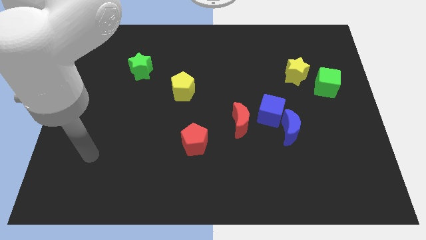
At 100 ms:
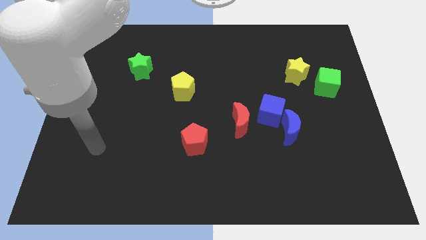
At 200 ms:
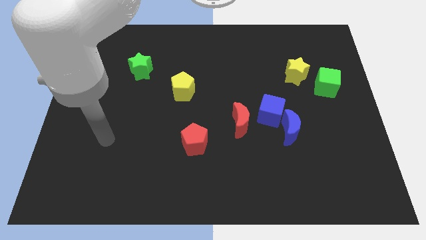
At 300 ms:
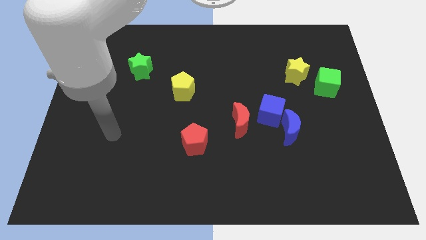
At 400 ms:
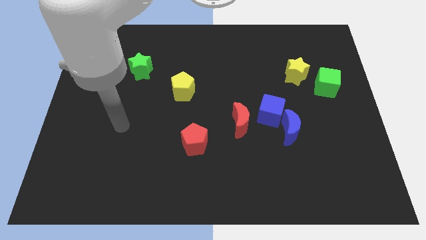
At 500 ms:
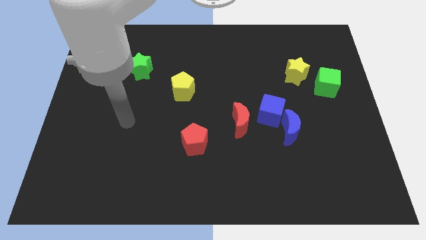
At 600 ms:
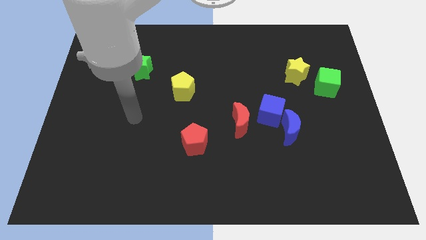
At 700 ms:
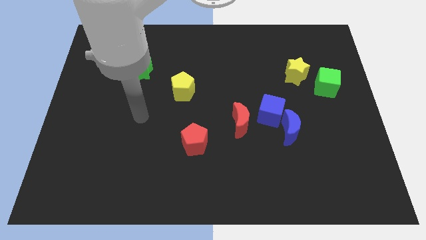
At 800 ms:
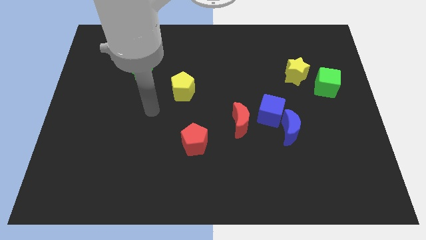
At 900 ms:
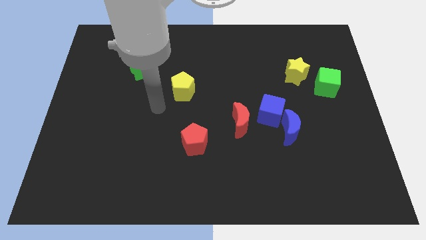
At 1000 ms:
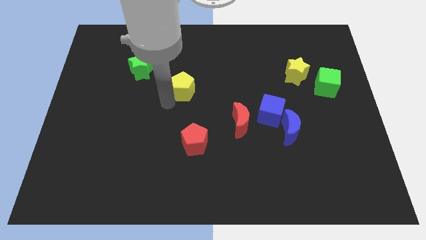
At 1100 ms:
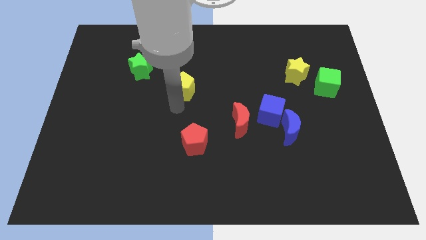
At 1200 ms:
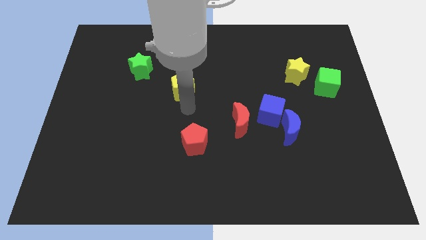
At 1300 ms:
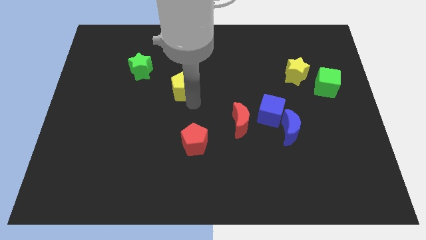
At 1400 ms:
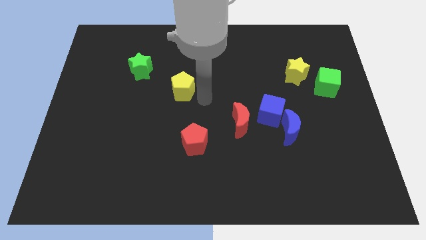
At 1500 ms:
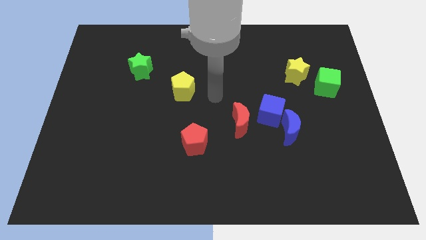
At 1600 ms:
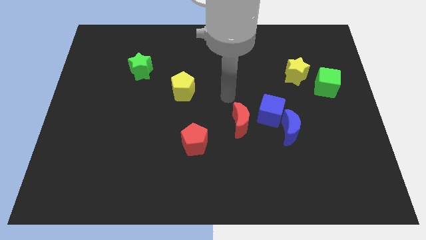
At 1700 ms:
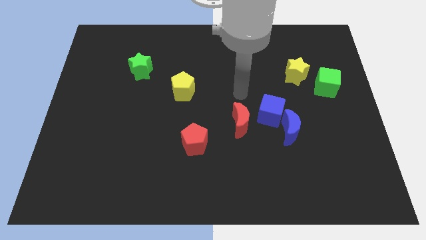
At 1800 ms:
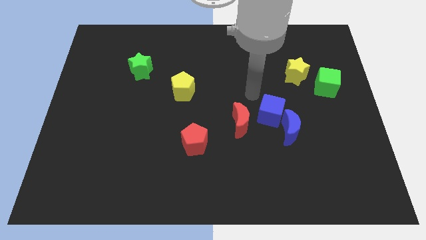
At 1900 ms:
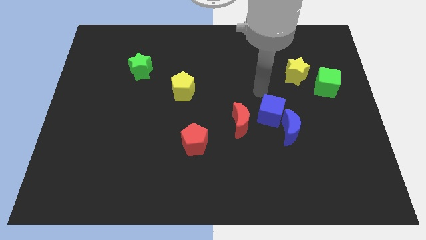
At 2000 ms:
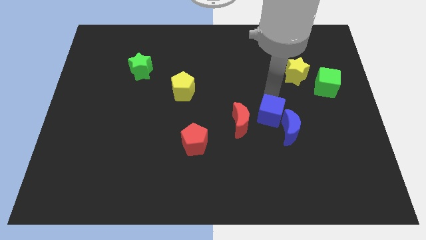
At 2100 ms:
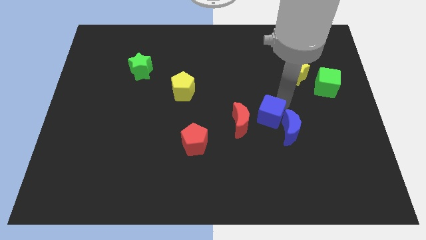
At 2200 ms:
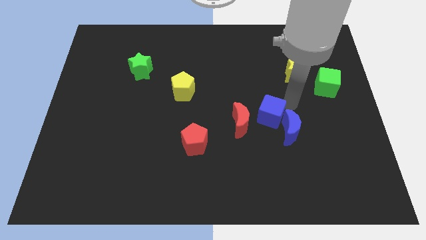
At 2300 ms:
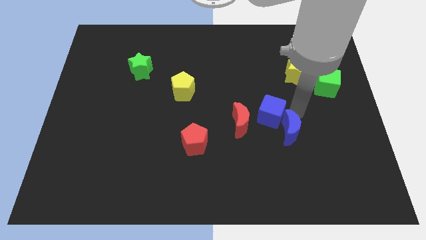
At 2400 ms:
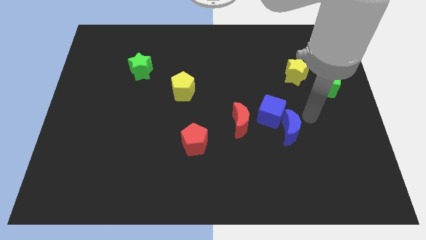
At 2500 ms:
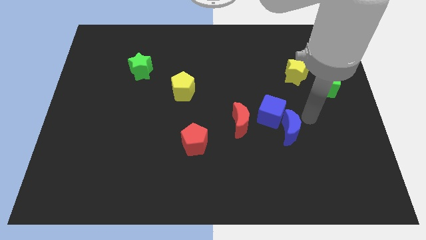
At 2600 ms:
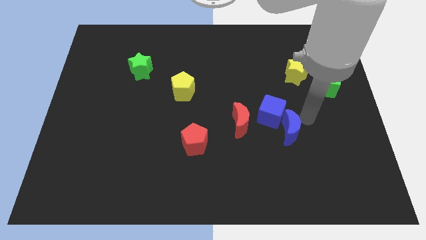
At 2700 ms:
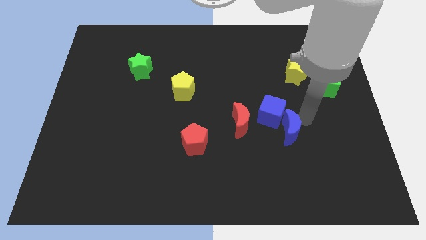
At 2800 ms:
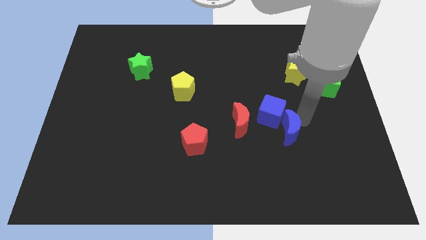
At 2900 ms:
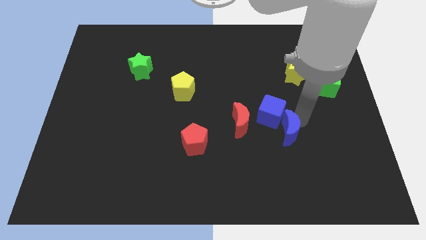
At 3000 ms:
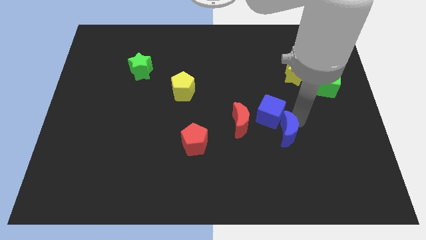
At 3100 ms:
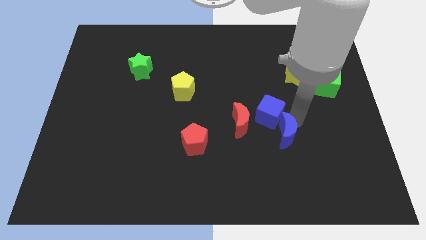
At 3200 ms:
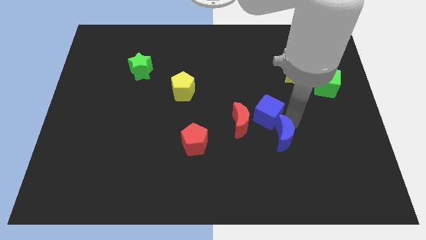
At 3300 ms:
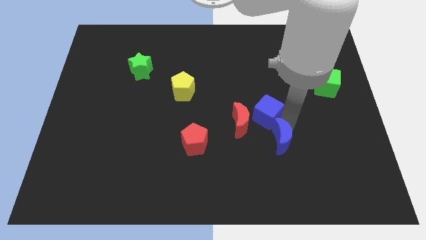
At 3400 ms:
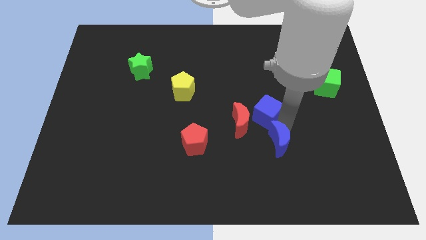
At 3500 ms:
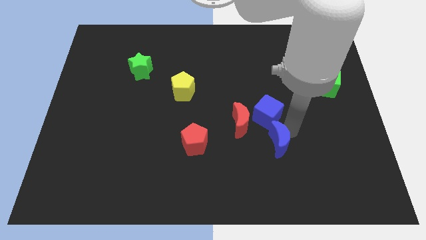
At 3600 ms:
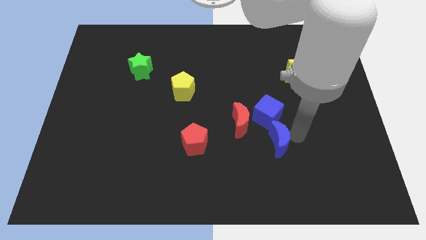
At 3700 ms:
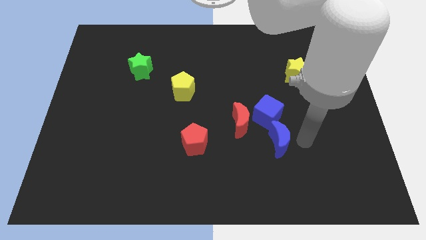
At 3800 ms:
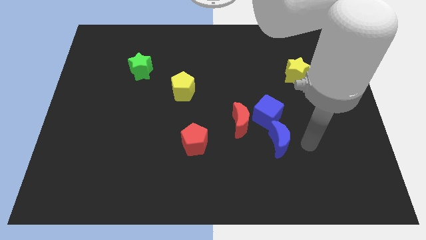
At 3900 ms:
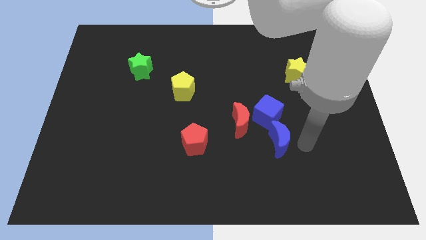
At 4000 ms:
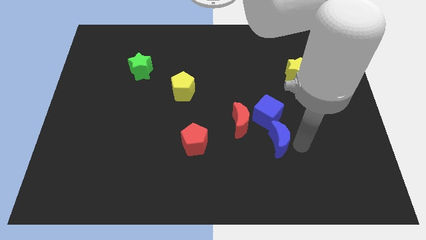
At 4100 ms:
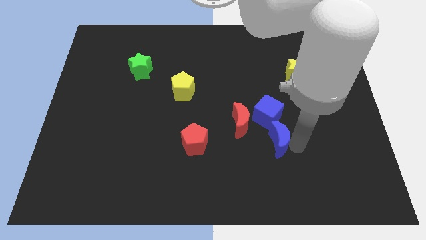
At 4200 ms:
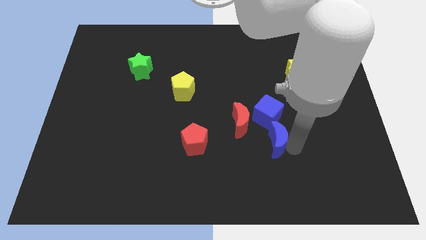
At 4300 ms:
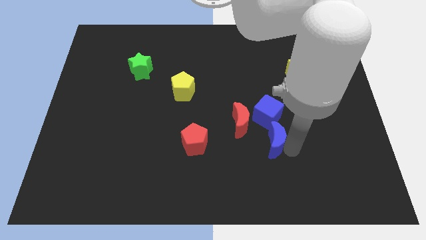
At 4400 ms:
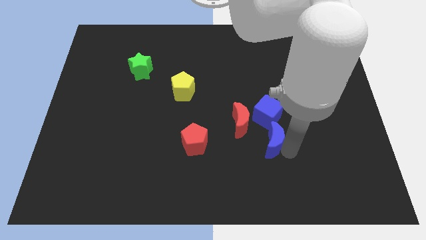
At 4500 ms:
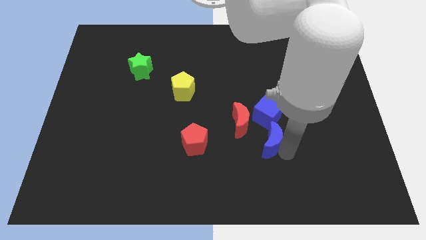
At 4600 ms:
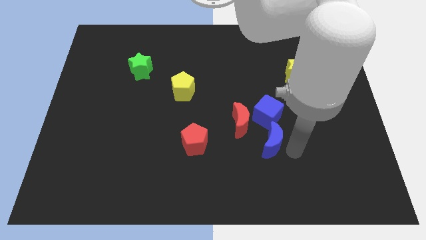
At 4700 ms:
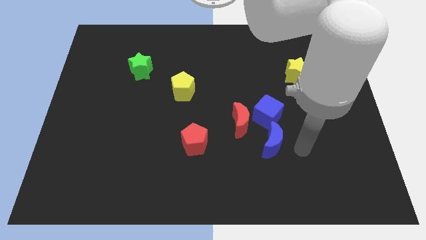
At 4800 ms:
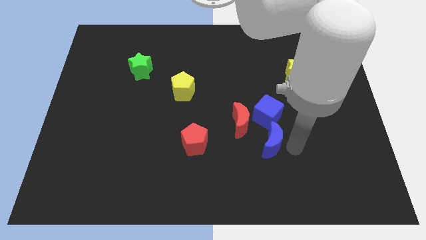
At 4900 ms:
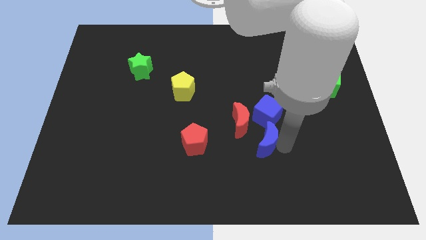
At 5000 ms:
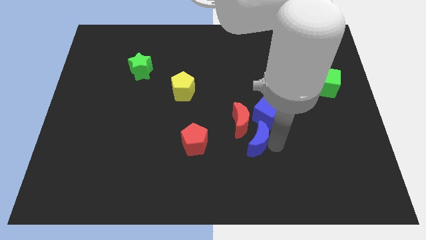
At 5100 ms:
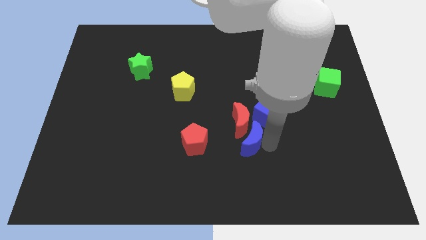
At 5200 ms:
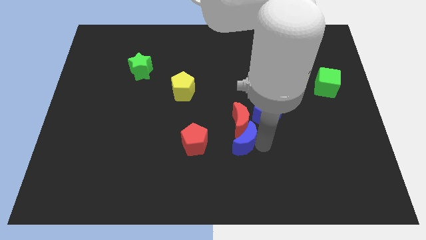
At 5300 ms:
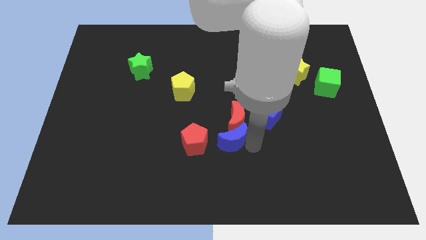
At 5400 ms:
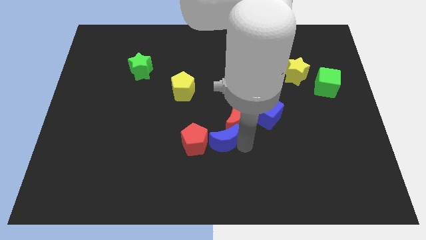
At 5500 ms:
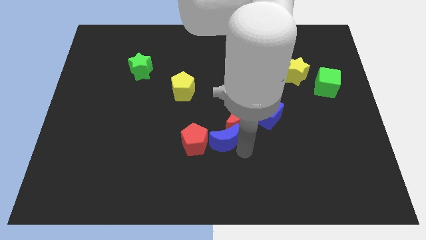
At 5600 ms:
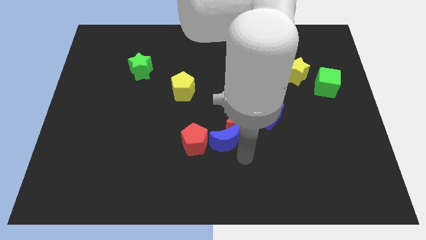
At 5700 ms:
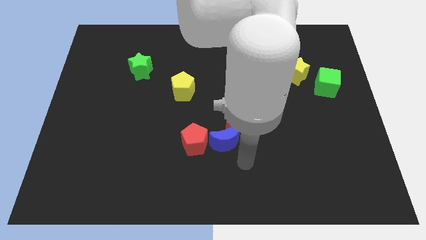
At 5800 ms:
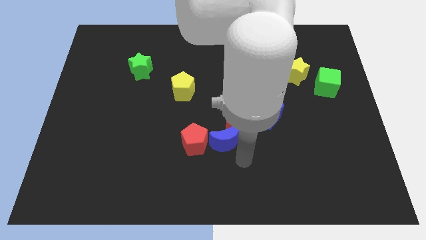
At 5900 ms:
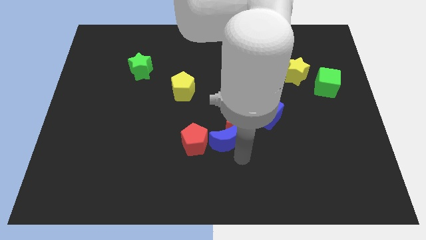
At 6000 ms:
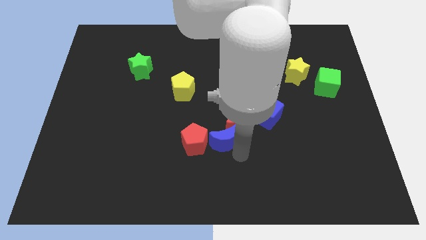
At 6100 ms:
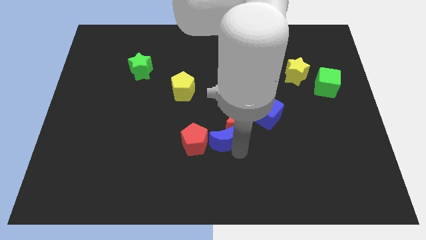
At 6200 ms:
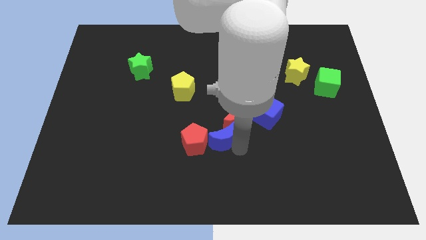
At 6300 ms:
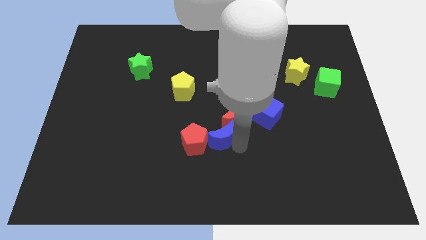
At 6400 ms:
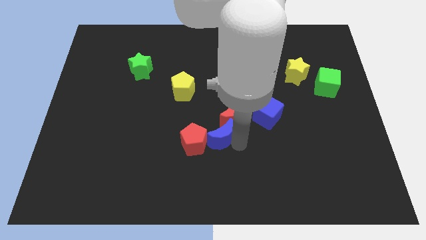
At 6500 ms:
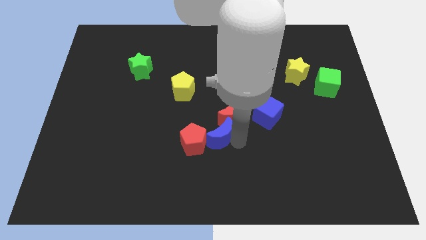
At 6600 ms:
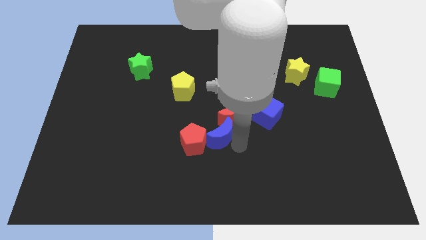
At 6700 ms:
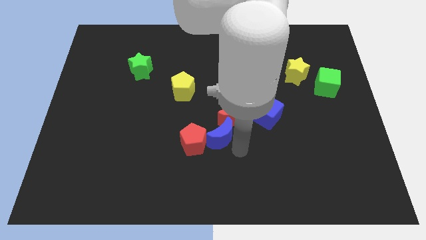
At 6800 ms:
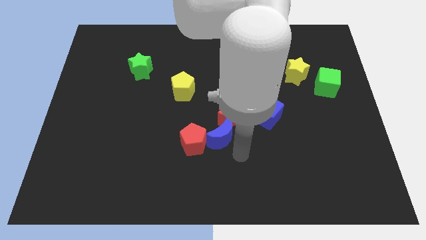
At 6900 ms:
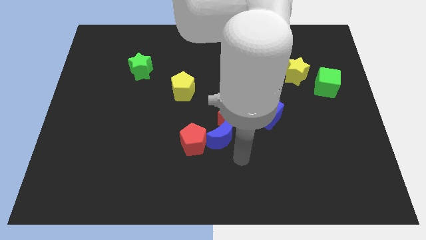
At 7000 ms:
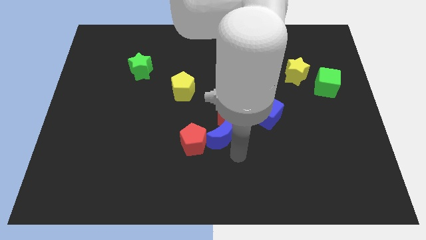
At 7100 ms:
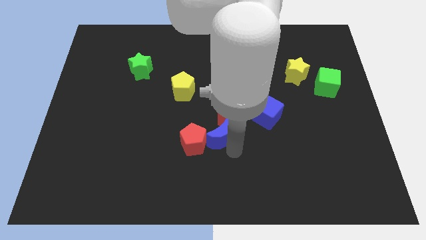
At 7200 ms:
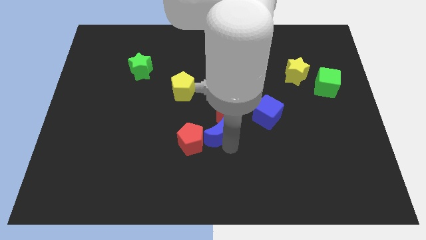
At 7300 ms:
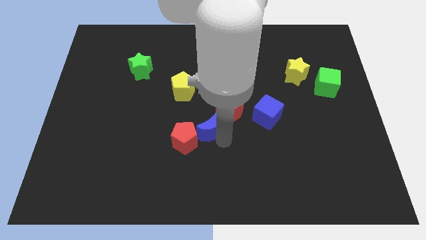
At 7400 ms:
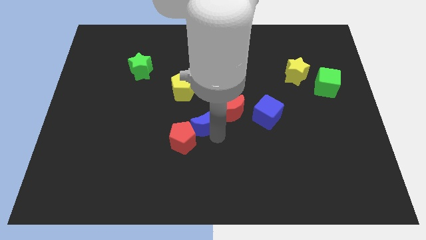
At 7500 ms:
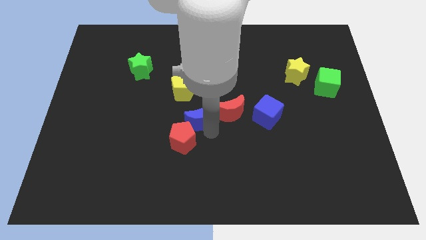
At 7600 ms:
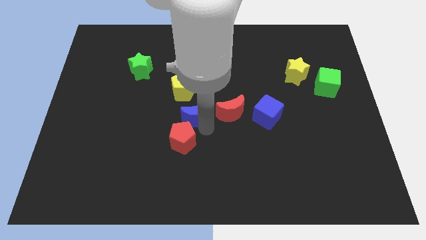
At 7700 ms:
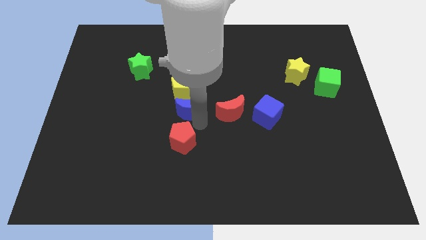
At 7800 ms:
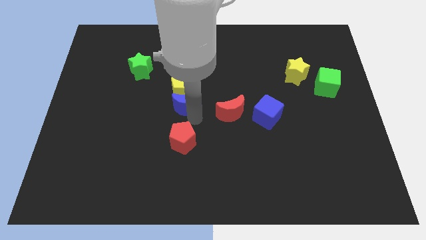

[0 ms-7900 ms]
push the blue moon next to the yellow pentagon
